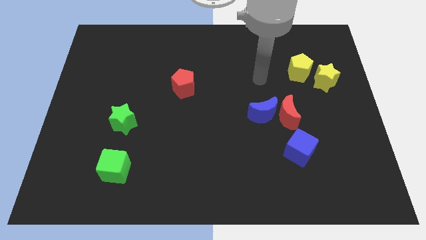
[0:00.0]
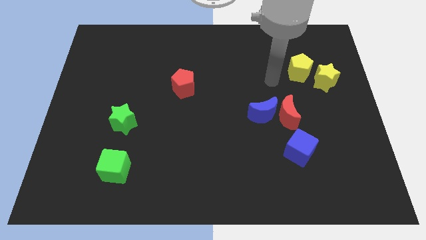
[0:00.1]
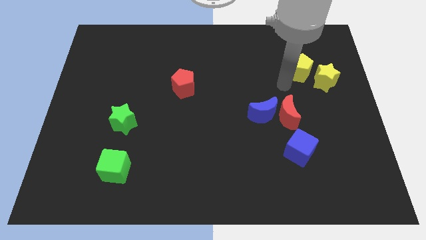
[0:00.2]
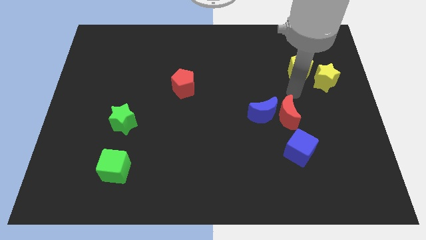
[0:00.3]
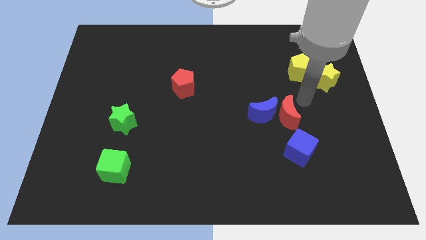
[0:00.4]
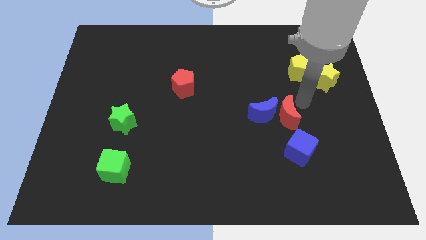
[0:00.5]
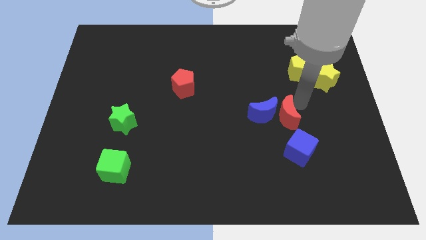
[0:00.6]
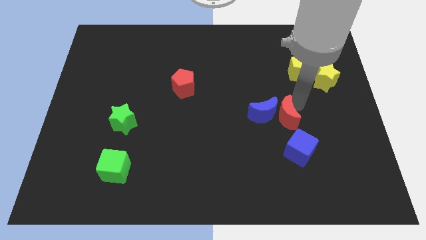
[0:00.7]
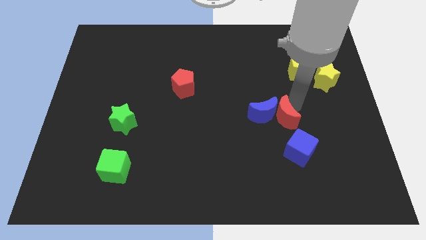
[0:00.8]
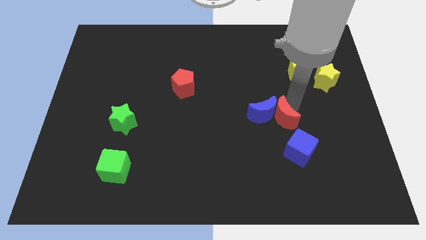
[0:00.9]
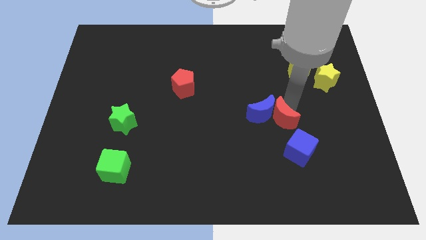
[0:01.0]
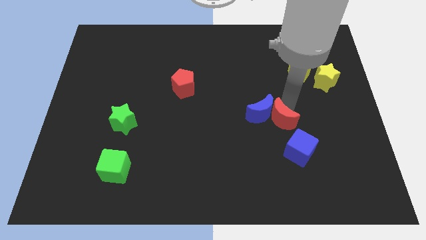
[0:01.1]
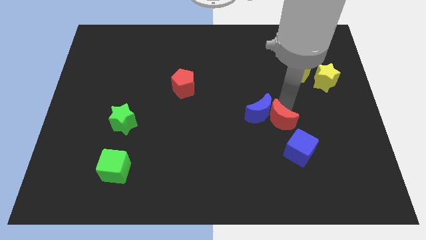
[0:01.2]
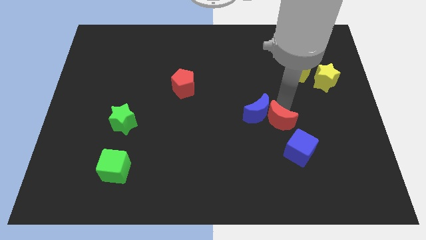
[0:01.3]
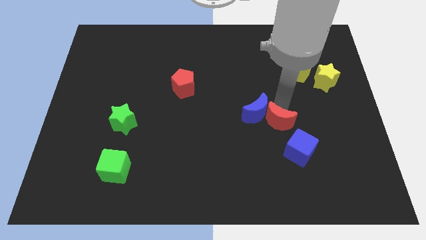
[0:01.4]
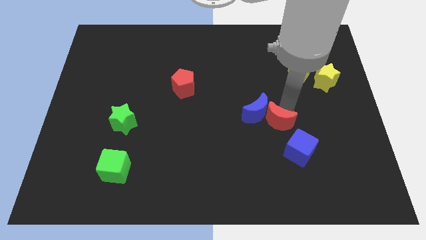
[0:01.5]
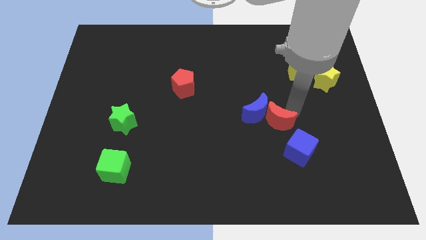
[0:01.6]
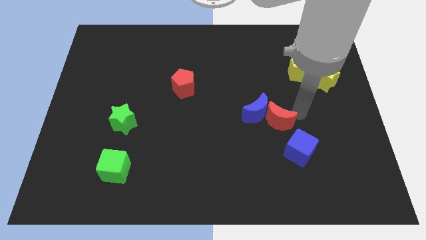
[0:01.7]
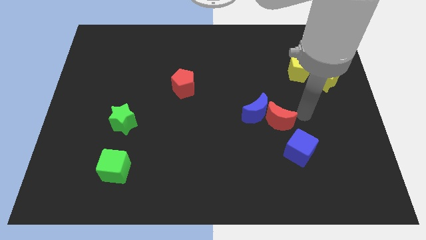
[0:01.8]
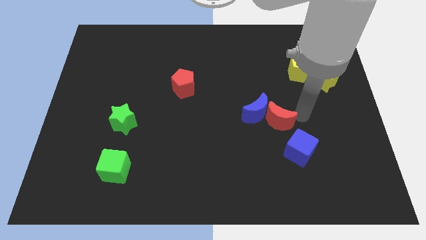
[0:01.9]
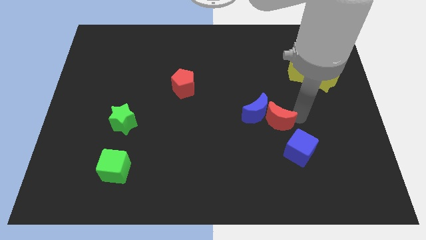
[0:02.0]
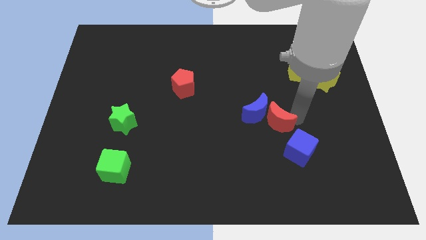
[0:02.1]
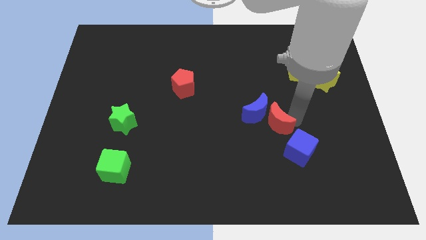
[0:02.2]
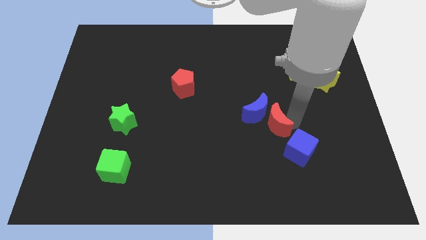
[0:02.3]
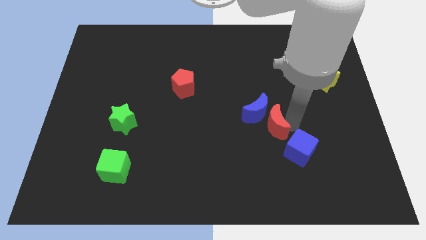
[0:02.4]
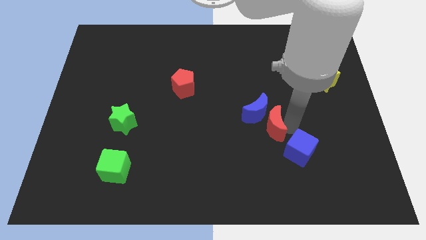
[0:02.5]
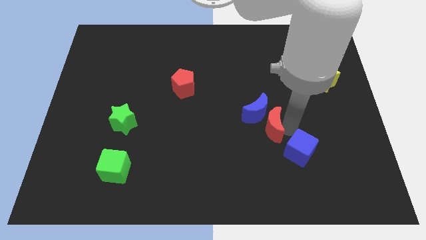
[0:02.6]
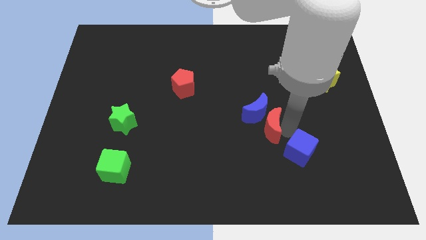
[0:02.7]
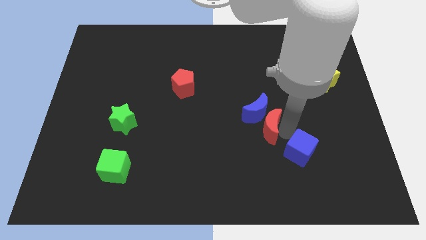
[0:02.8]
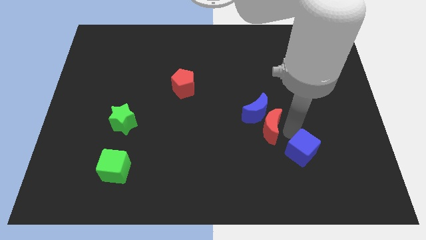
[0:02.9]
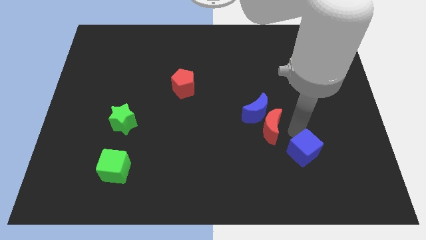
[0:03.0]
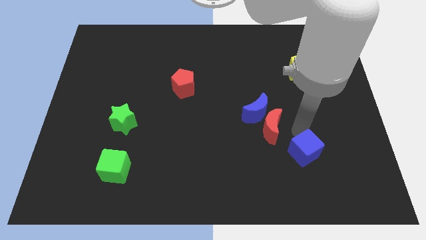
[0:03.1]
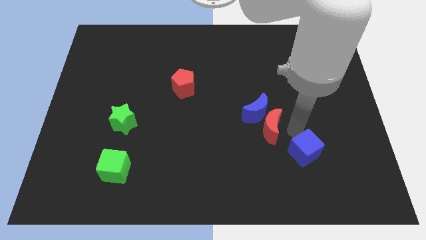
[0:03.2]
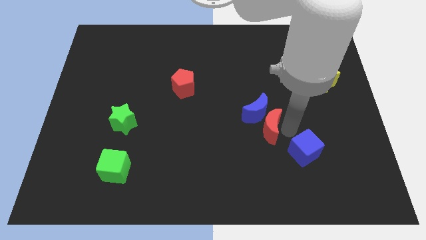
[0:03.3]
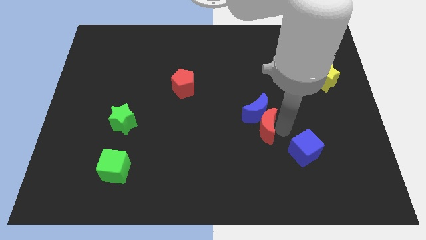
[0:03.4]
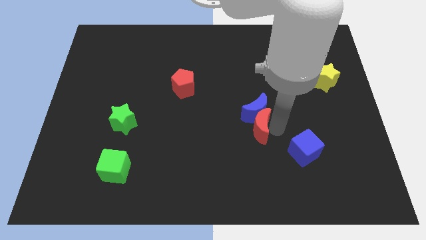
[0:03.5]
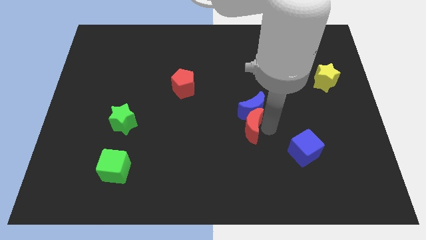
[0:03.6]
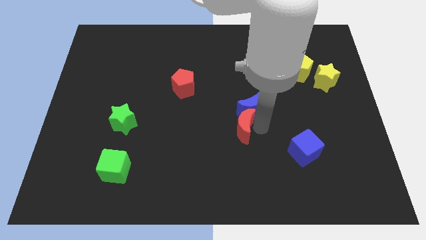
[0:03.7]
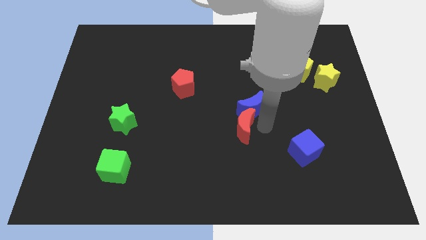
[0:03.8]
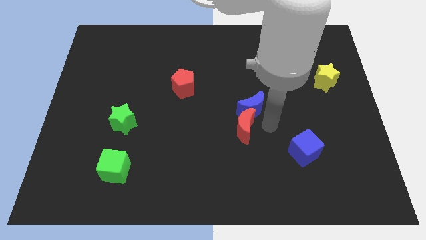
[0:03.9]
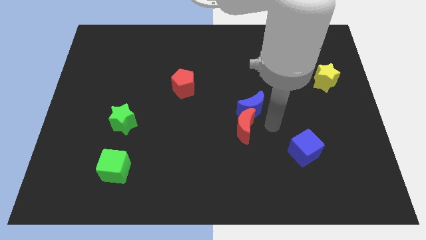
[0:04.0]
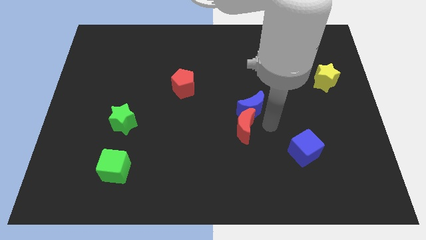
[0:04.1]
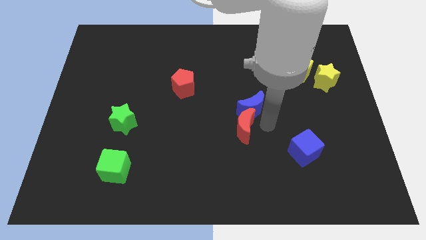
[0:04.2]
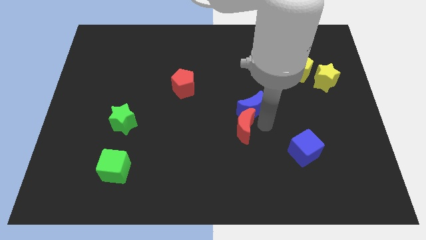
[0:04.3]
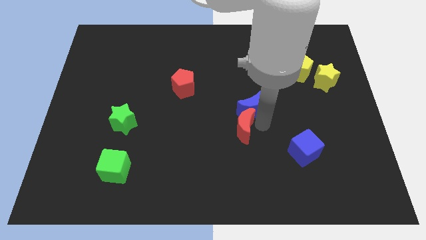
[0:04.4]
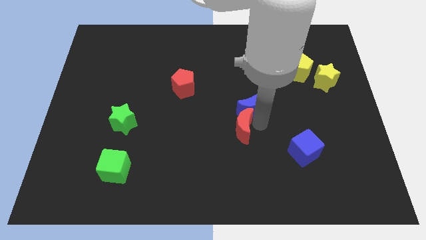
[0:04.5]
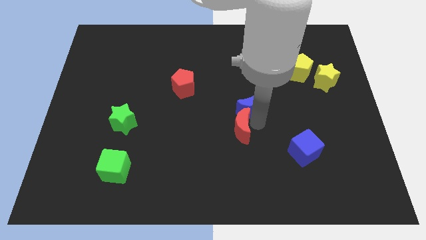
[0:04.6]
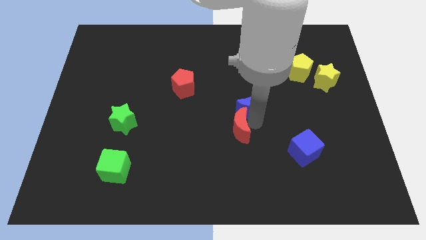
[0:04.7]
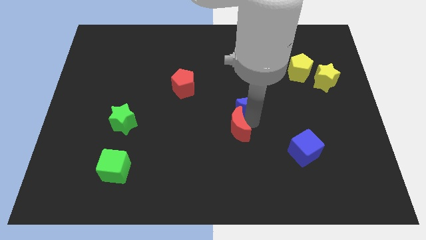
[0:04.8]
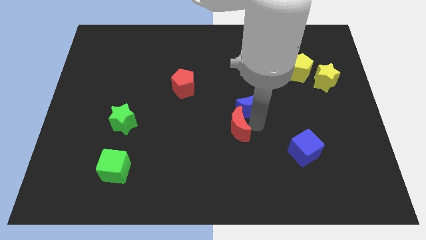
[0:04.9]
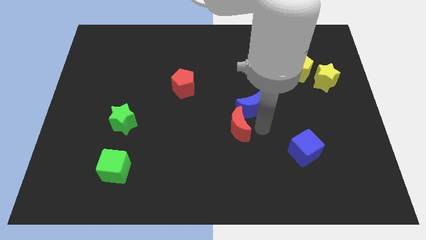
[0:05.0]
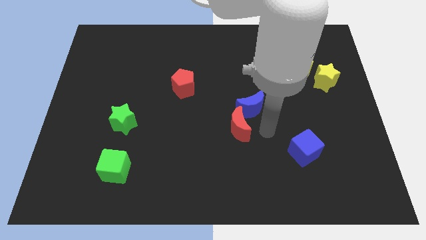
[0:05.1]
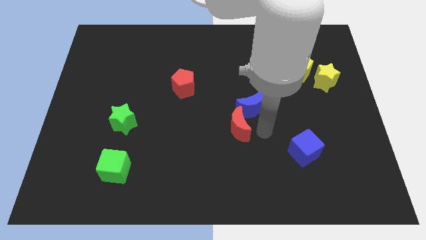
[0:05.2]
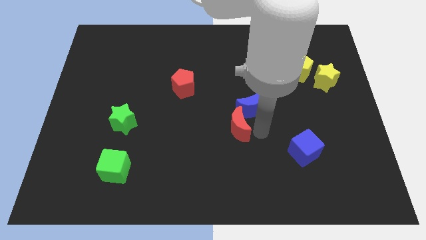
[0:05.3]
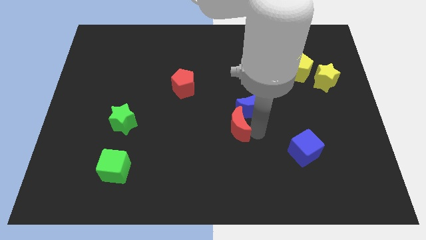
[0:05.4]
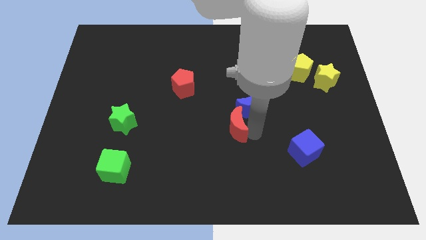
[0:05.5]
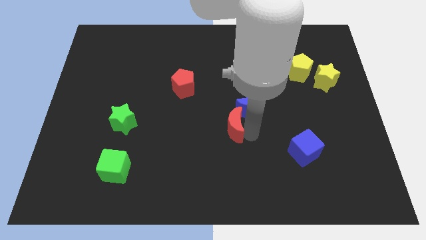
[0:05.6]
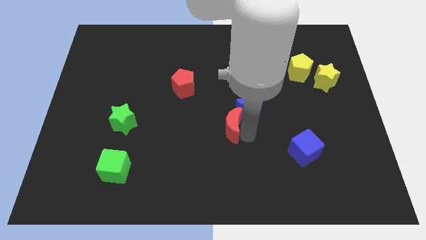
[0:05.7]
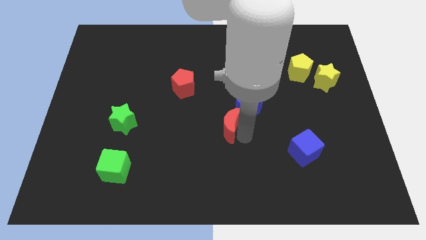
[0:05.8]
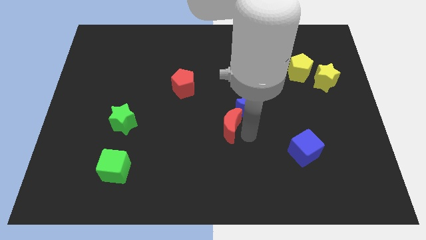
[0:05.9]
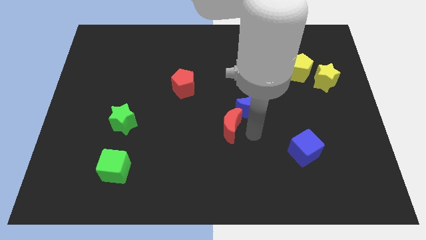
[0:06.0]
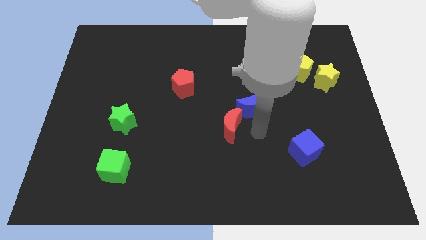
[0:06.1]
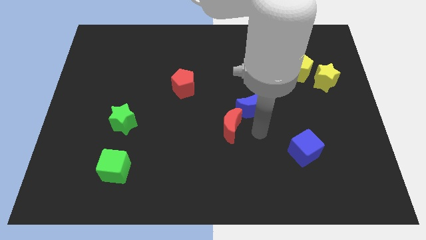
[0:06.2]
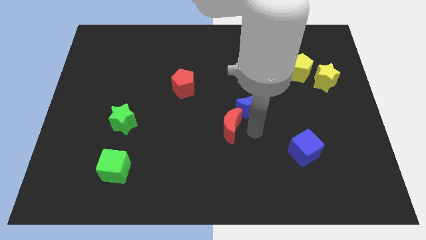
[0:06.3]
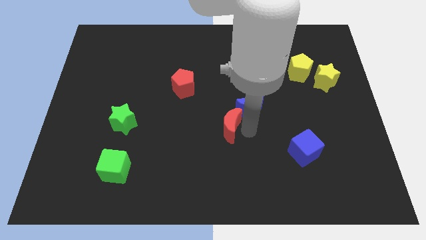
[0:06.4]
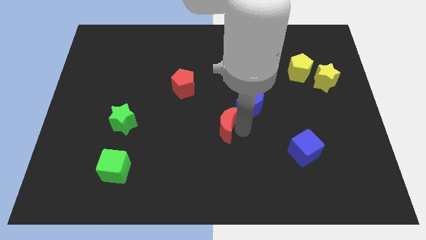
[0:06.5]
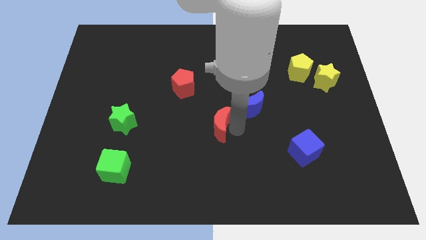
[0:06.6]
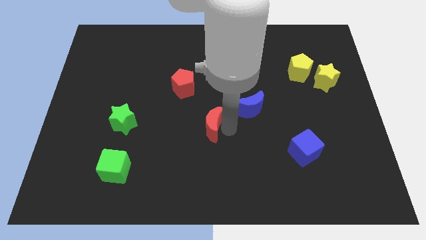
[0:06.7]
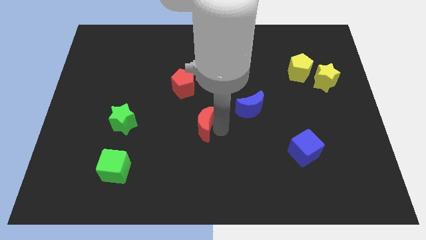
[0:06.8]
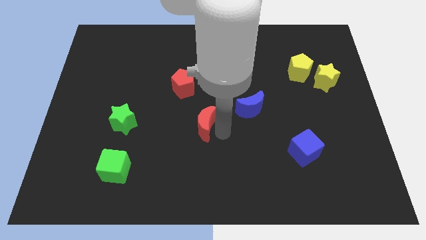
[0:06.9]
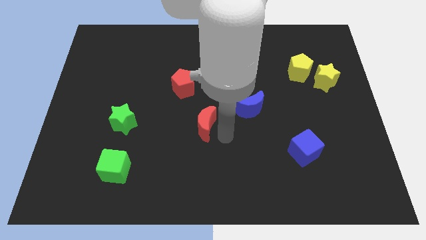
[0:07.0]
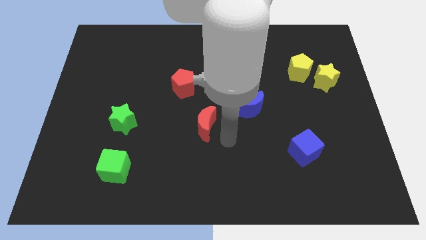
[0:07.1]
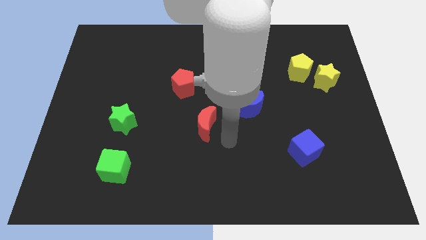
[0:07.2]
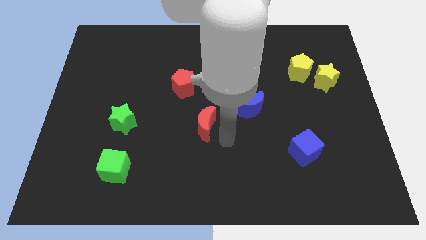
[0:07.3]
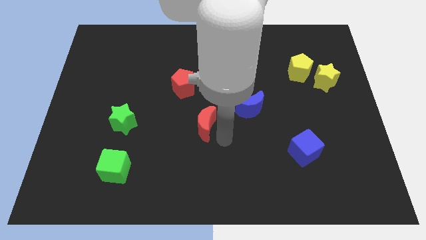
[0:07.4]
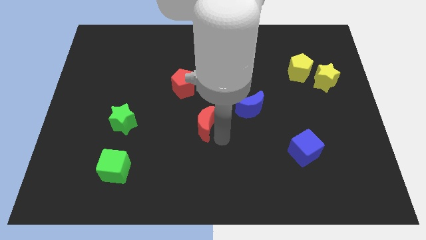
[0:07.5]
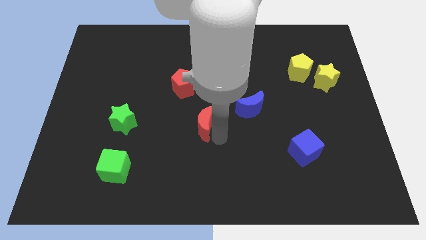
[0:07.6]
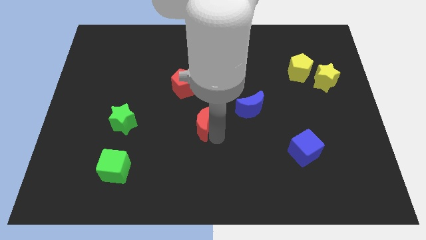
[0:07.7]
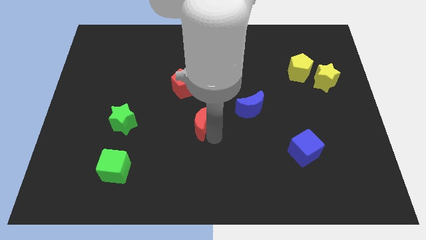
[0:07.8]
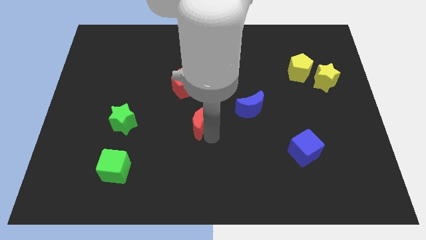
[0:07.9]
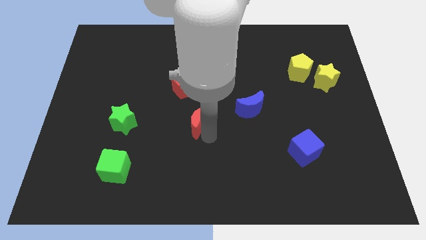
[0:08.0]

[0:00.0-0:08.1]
slide the red moon left
